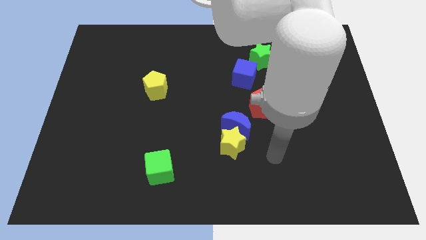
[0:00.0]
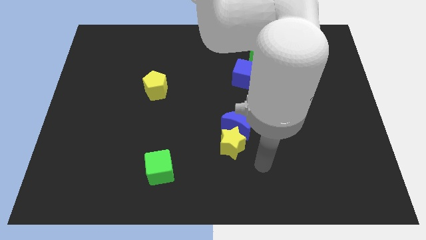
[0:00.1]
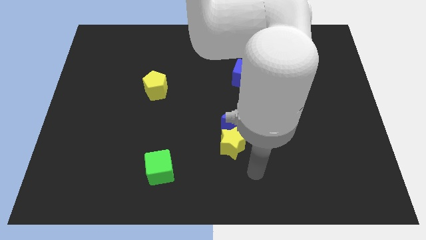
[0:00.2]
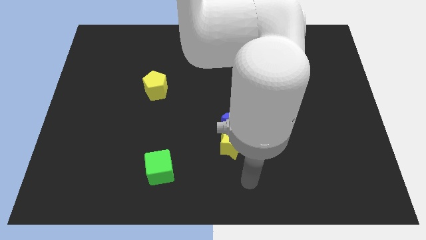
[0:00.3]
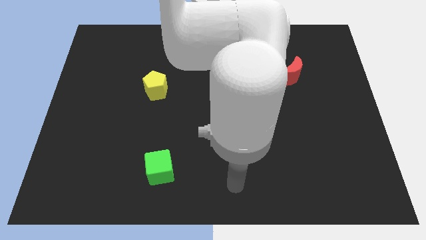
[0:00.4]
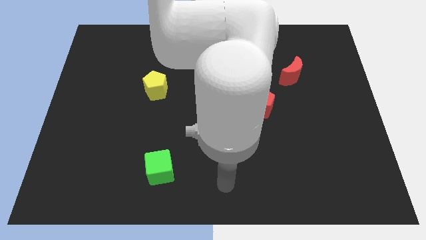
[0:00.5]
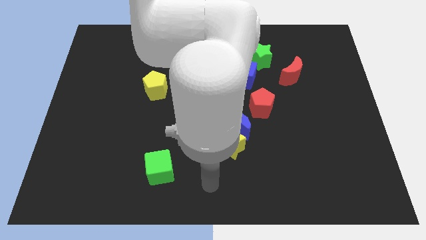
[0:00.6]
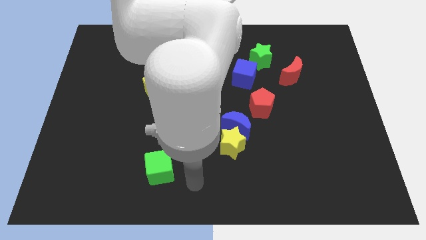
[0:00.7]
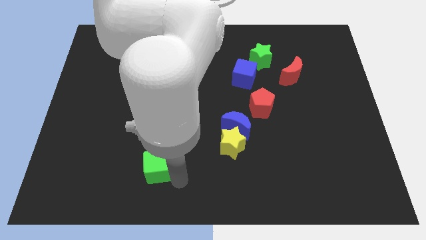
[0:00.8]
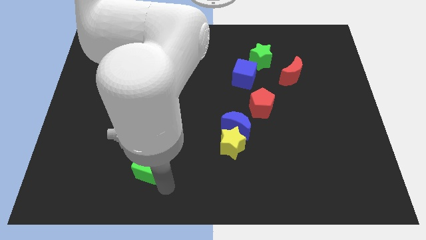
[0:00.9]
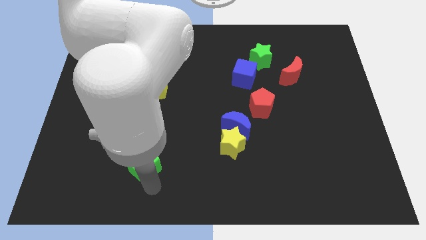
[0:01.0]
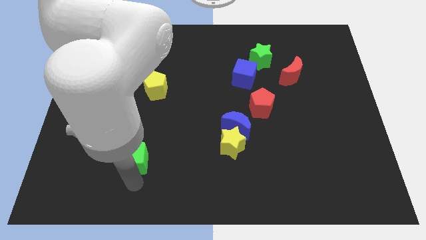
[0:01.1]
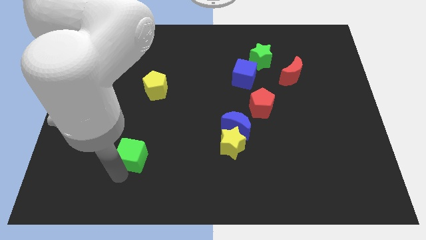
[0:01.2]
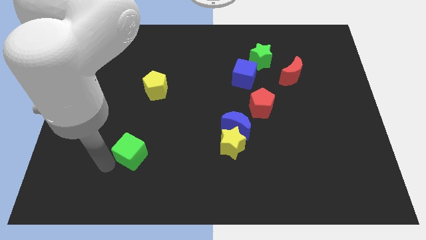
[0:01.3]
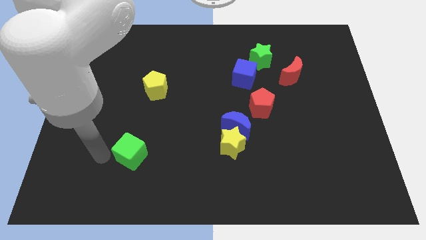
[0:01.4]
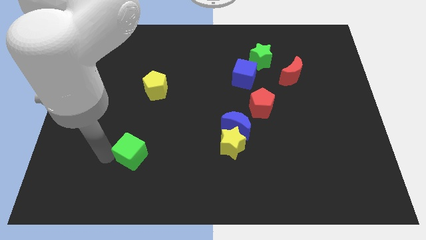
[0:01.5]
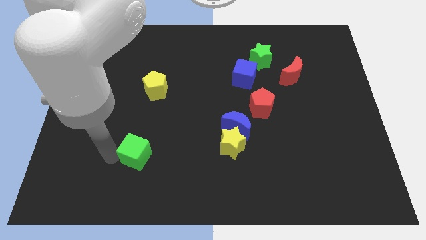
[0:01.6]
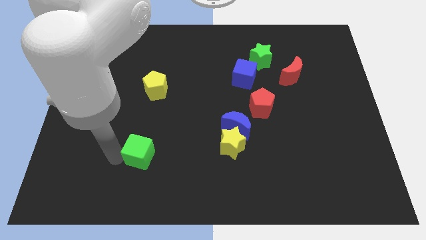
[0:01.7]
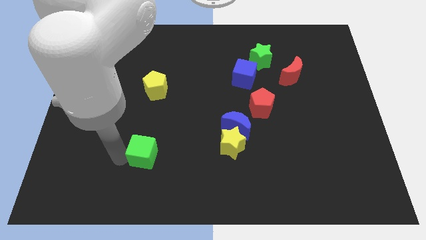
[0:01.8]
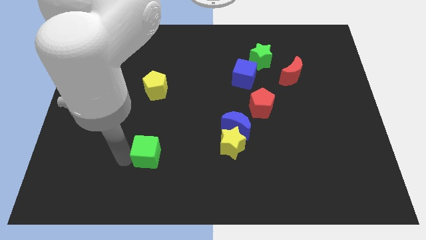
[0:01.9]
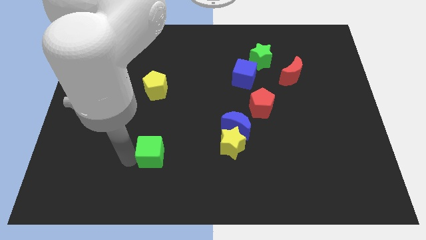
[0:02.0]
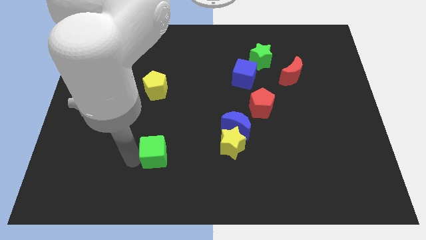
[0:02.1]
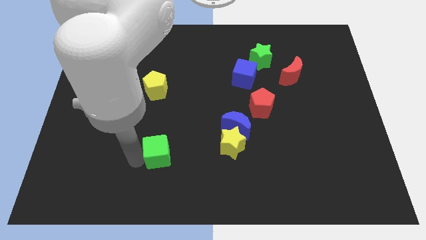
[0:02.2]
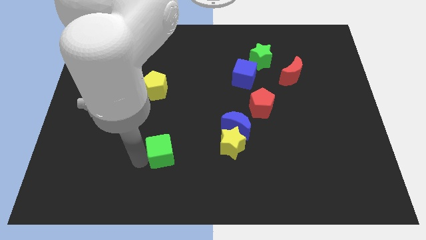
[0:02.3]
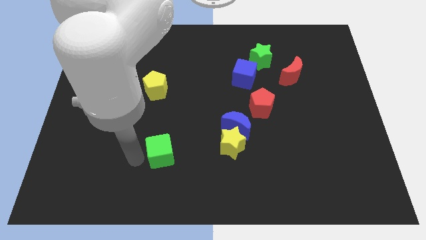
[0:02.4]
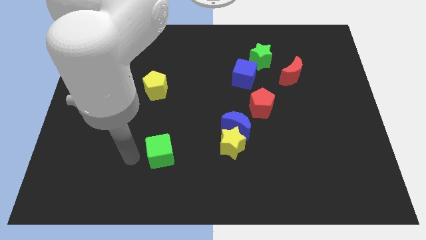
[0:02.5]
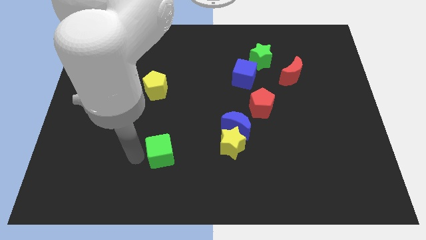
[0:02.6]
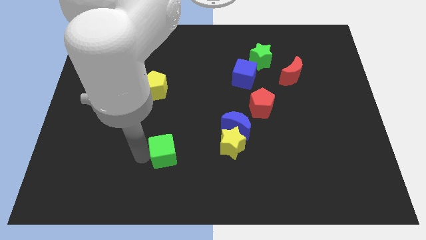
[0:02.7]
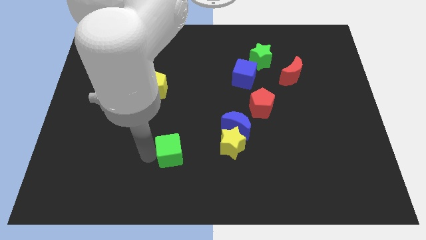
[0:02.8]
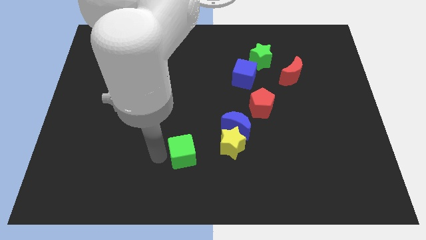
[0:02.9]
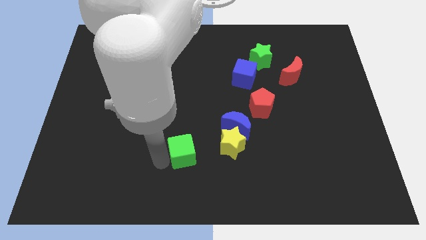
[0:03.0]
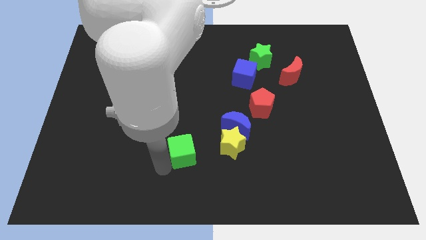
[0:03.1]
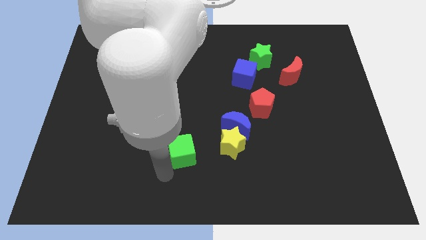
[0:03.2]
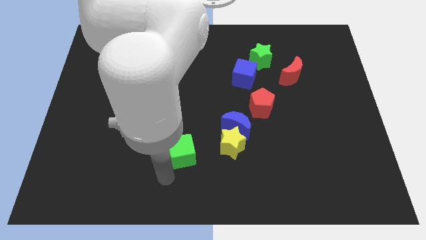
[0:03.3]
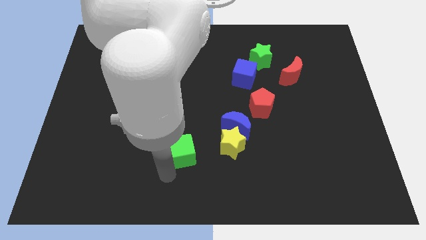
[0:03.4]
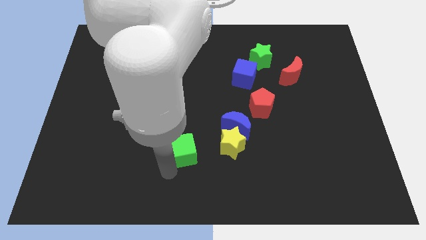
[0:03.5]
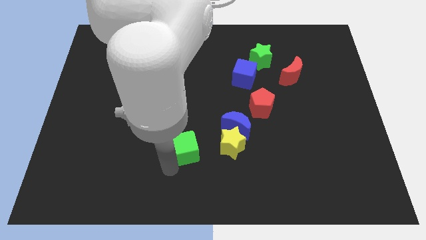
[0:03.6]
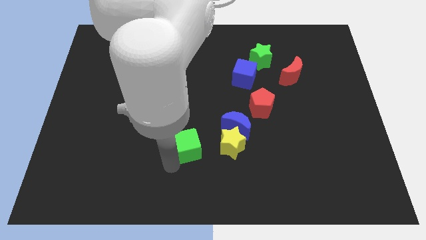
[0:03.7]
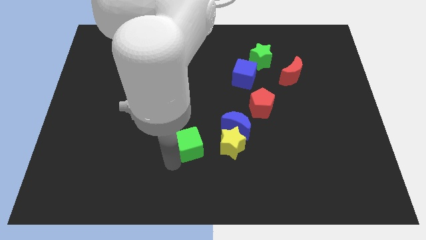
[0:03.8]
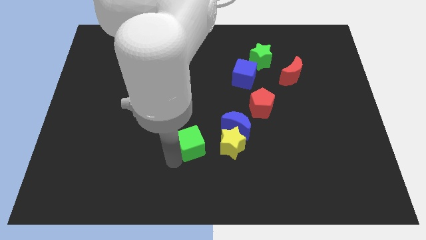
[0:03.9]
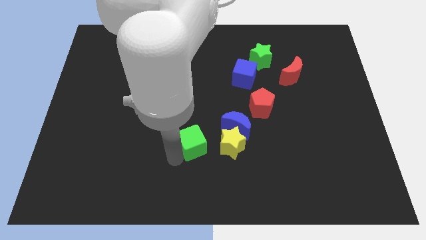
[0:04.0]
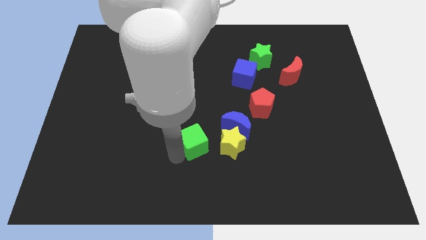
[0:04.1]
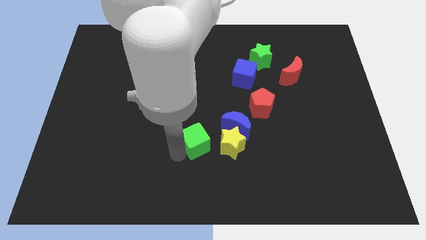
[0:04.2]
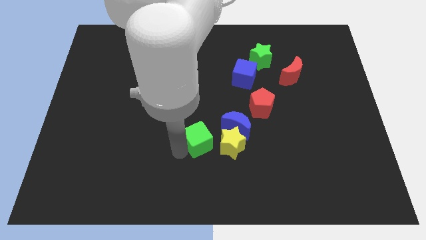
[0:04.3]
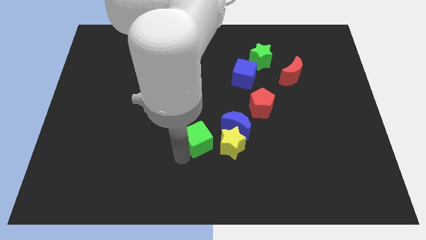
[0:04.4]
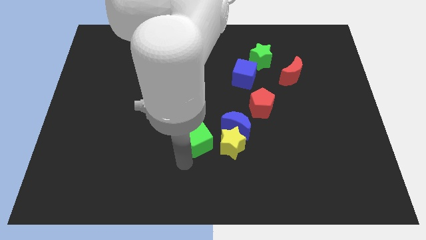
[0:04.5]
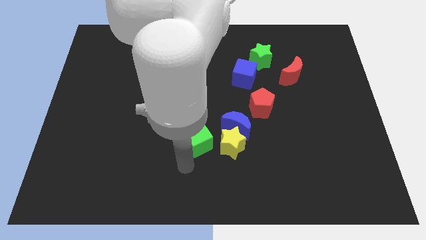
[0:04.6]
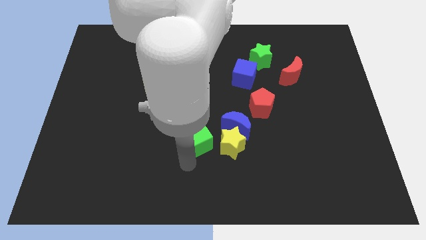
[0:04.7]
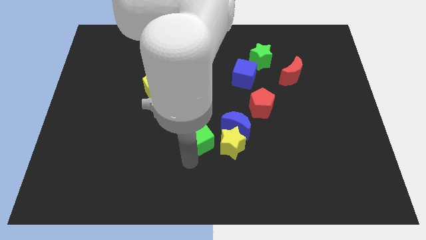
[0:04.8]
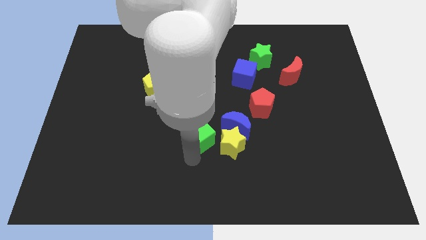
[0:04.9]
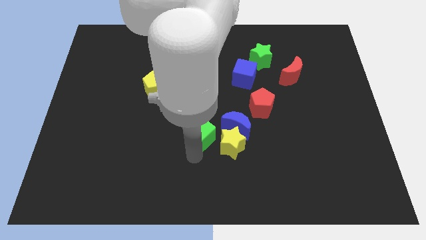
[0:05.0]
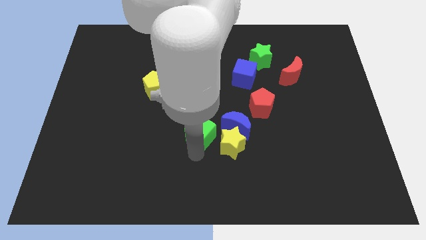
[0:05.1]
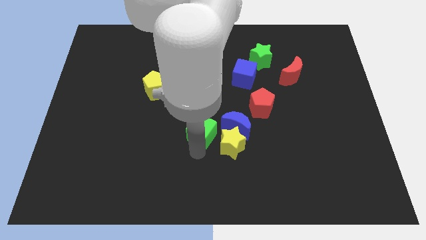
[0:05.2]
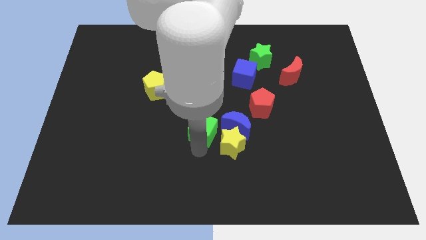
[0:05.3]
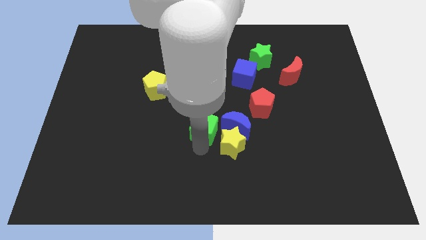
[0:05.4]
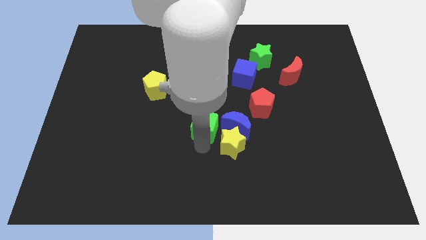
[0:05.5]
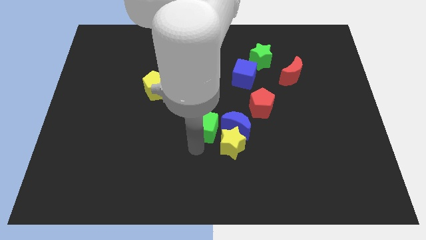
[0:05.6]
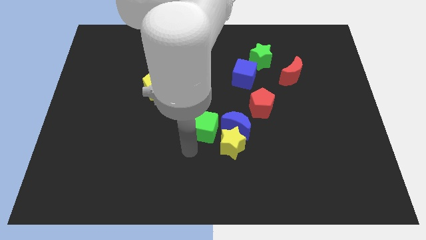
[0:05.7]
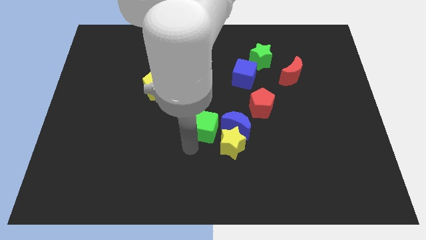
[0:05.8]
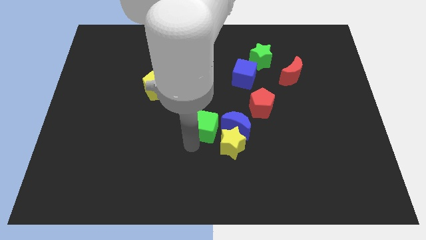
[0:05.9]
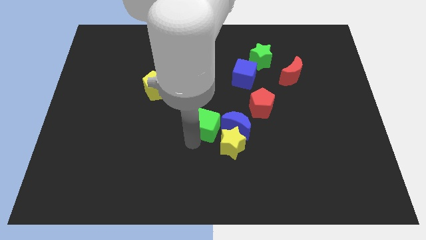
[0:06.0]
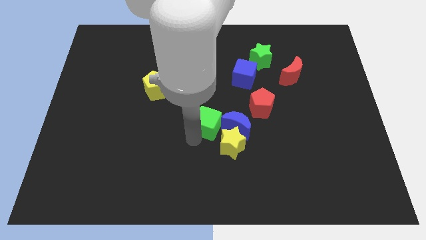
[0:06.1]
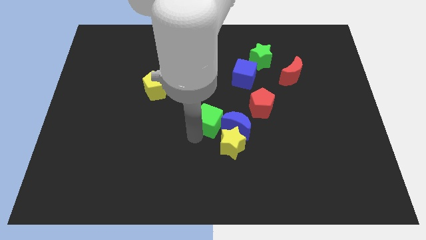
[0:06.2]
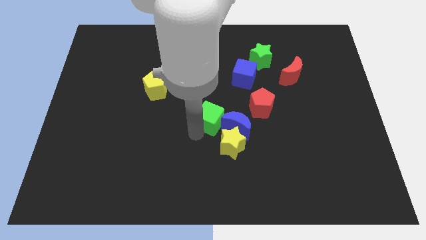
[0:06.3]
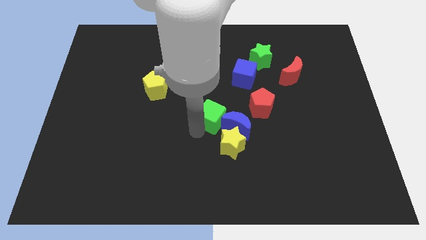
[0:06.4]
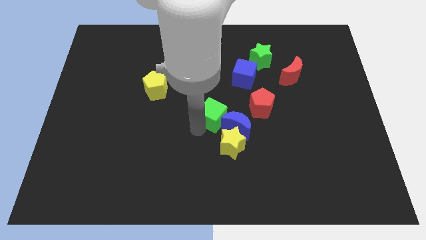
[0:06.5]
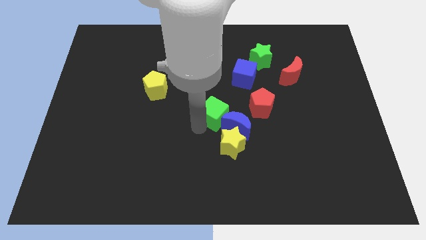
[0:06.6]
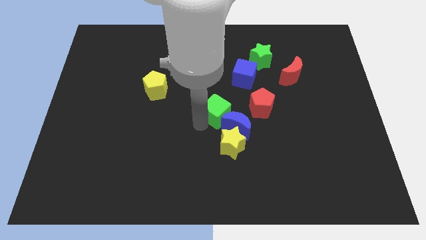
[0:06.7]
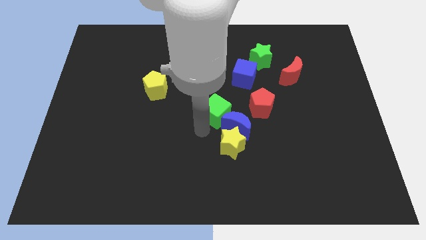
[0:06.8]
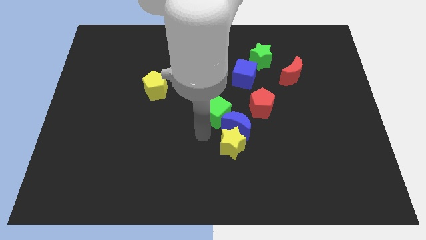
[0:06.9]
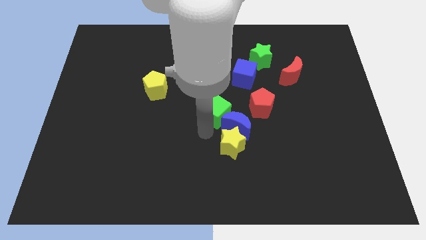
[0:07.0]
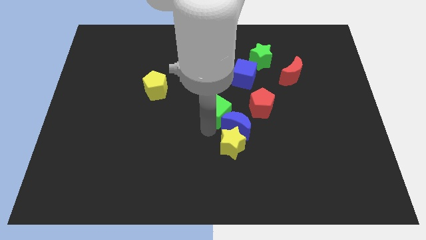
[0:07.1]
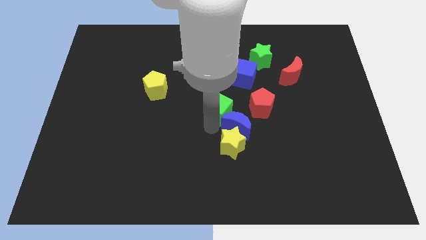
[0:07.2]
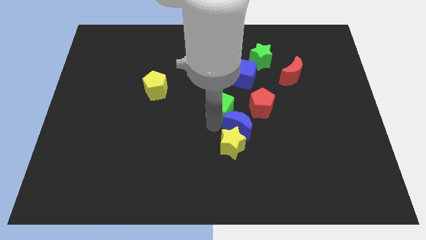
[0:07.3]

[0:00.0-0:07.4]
slide the green cube up and right diagonally

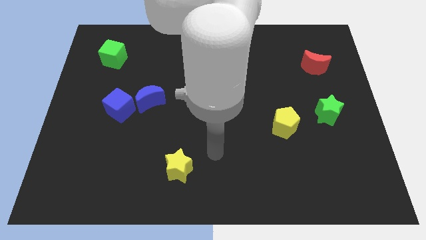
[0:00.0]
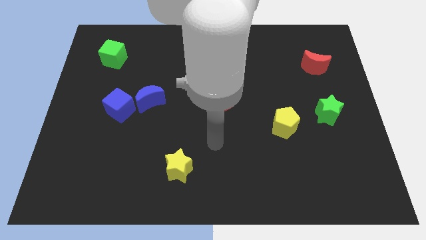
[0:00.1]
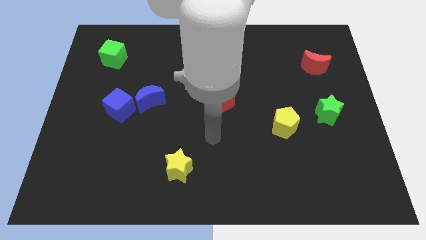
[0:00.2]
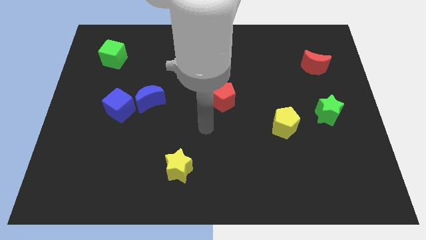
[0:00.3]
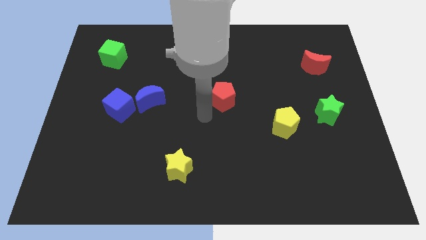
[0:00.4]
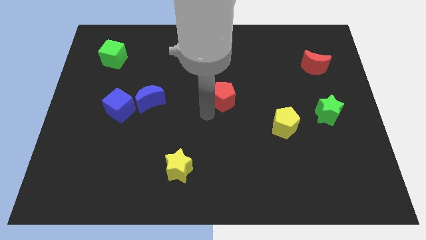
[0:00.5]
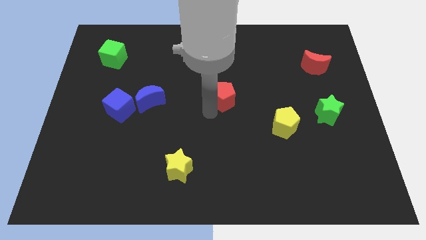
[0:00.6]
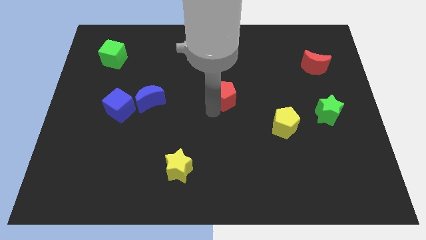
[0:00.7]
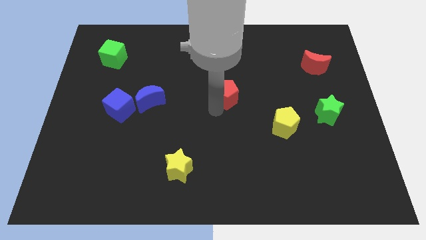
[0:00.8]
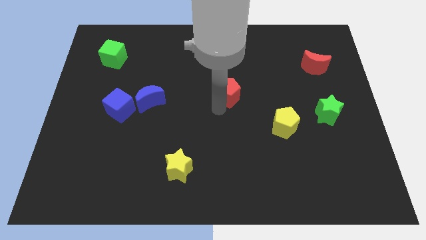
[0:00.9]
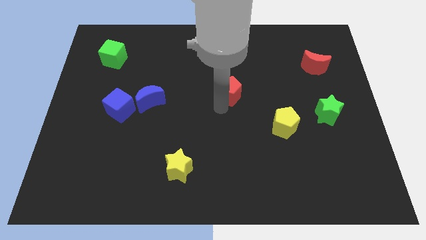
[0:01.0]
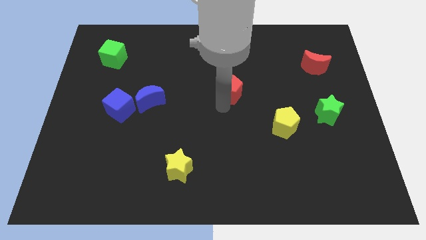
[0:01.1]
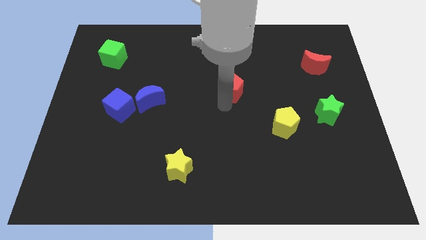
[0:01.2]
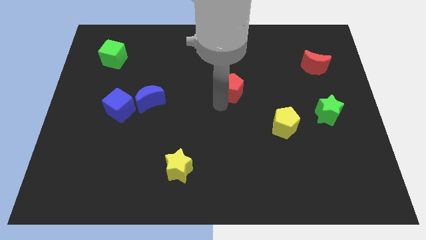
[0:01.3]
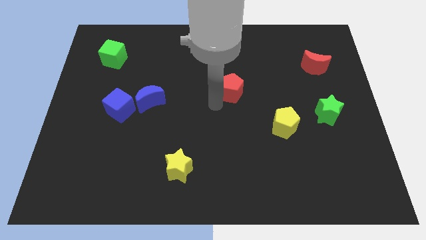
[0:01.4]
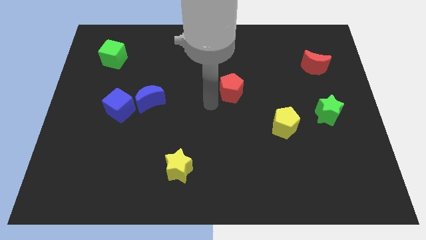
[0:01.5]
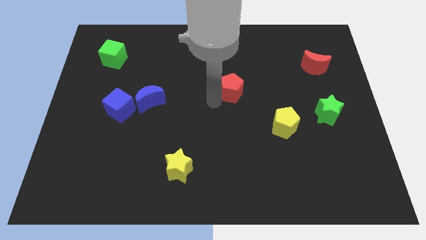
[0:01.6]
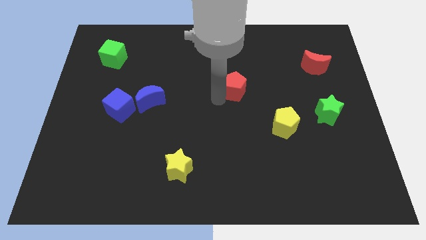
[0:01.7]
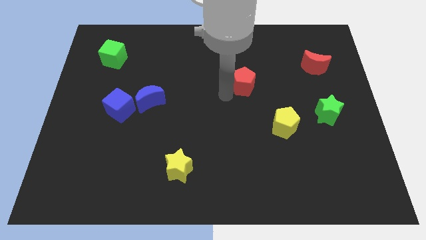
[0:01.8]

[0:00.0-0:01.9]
slide the red pentagon somewhat diagonally upwards and right
